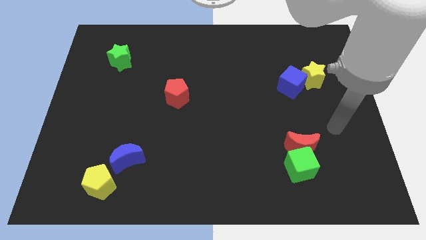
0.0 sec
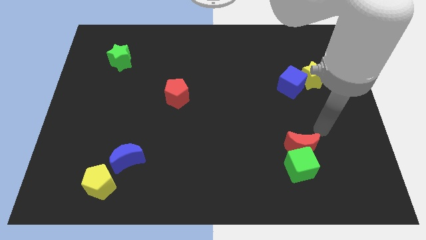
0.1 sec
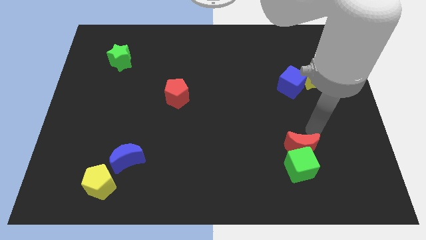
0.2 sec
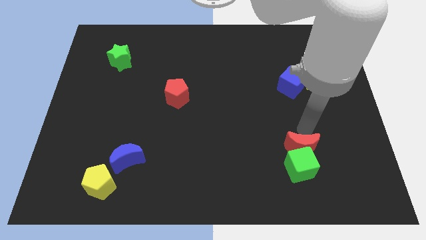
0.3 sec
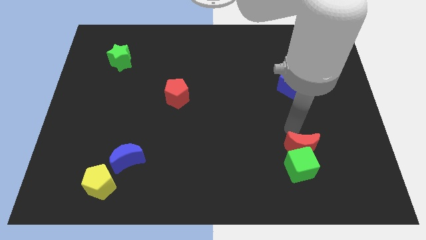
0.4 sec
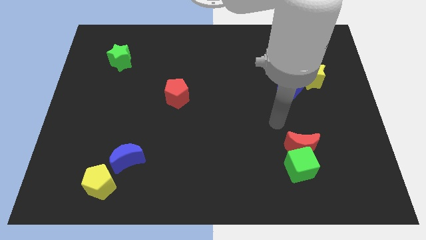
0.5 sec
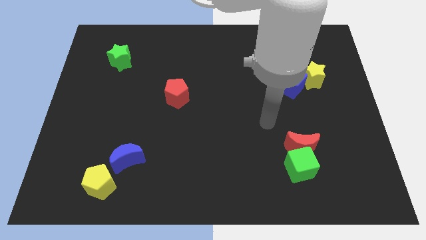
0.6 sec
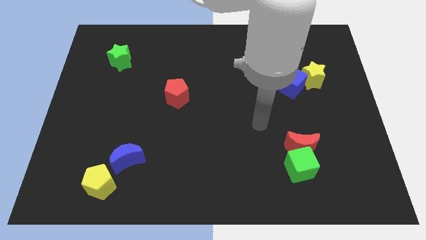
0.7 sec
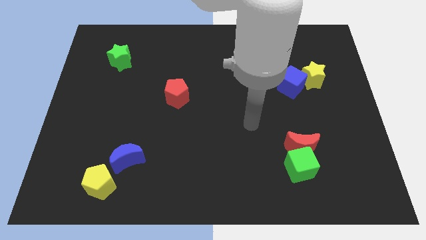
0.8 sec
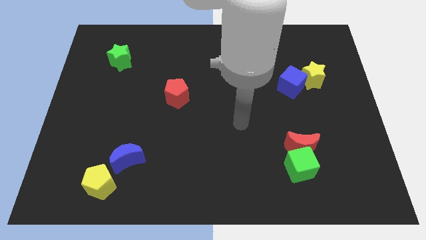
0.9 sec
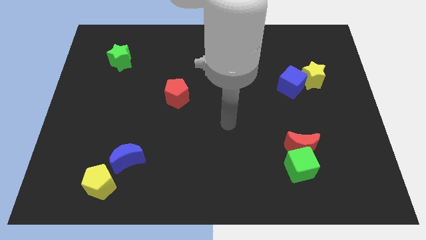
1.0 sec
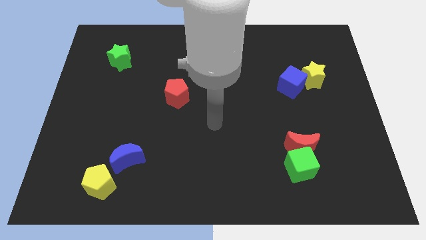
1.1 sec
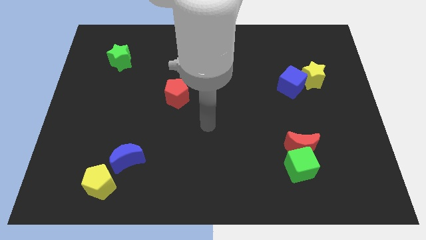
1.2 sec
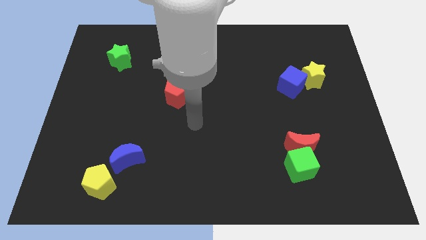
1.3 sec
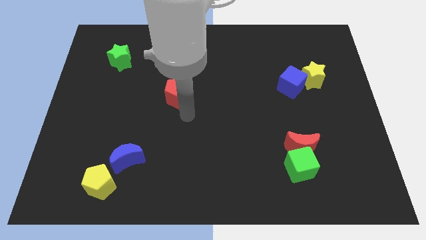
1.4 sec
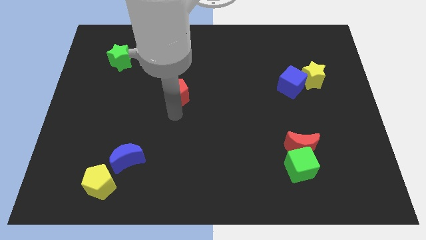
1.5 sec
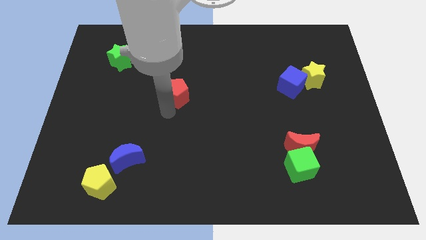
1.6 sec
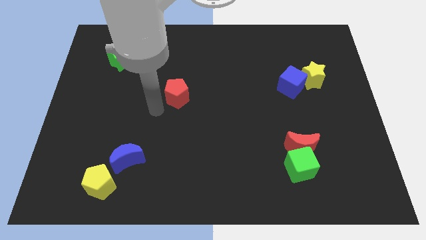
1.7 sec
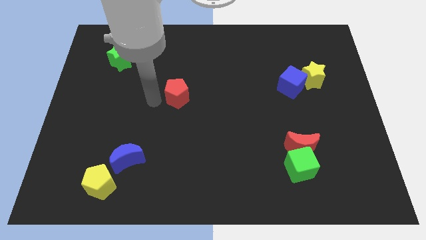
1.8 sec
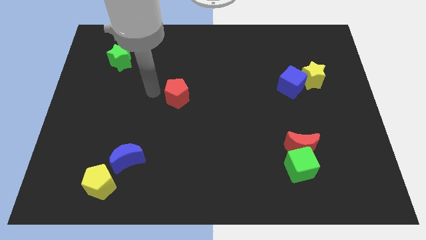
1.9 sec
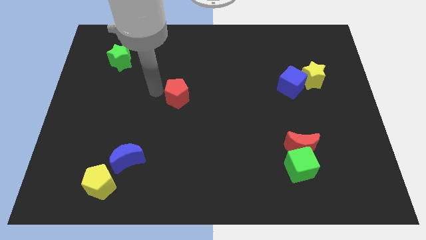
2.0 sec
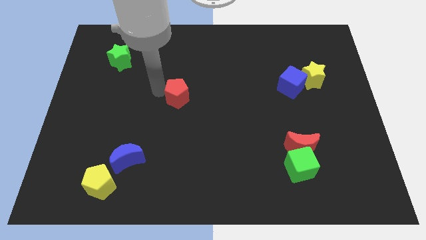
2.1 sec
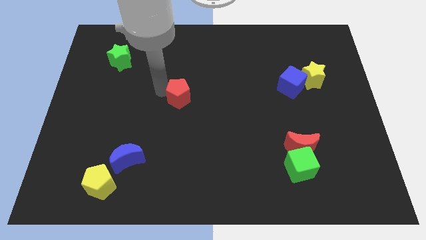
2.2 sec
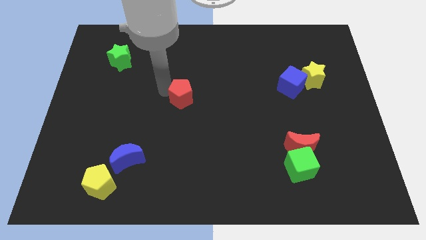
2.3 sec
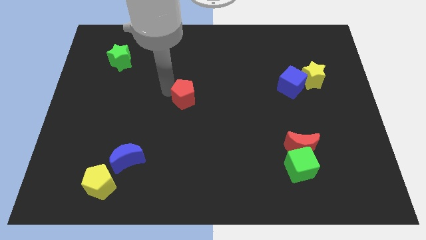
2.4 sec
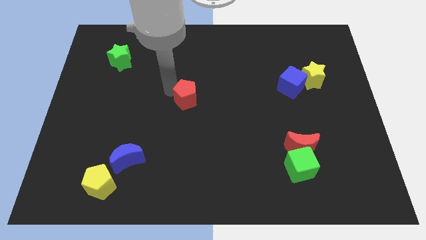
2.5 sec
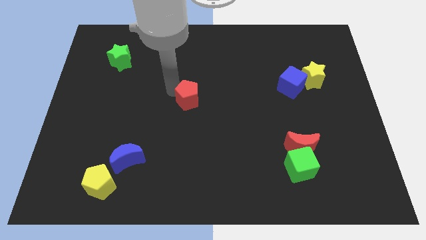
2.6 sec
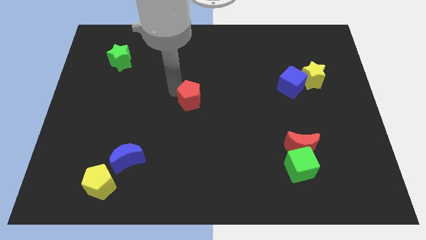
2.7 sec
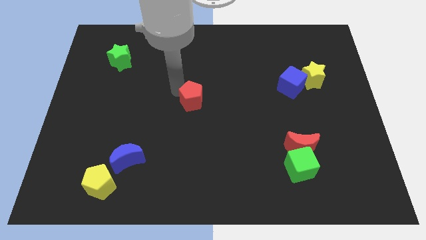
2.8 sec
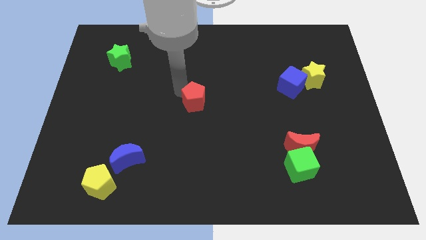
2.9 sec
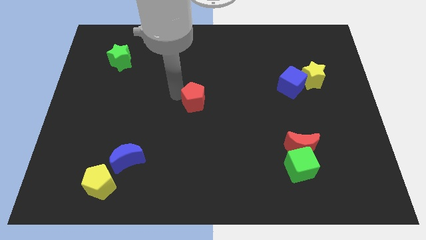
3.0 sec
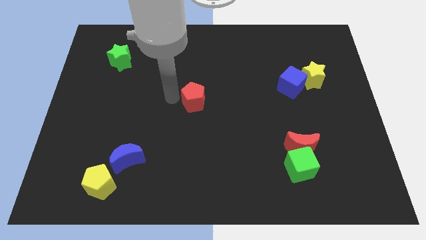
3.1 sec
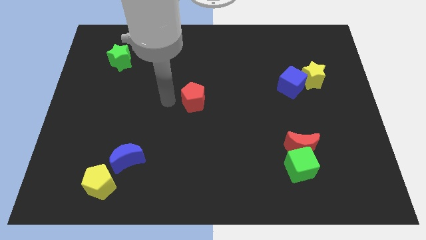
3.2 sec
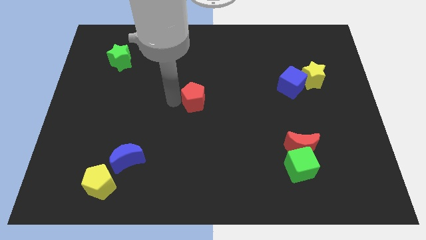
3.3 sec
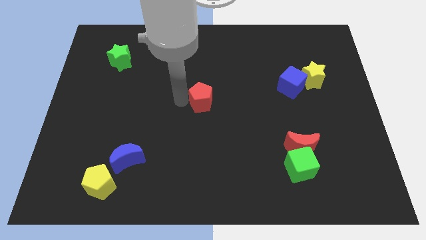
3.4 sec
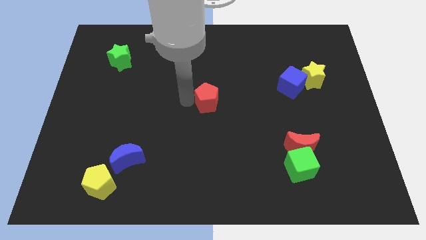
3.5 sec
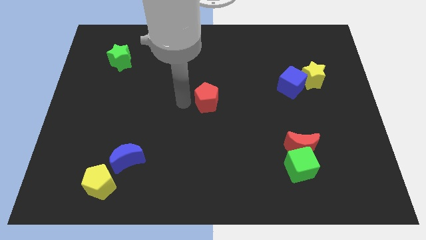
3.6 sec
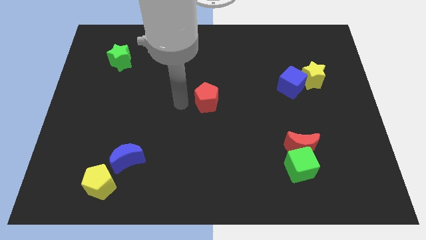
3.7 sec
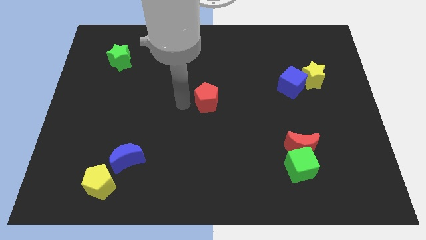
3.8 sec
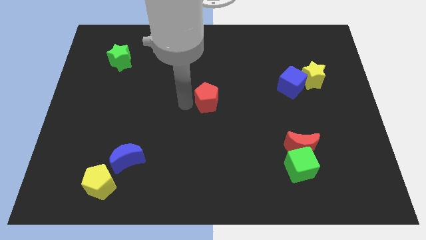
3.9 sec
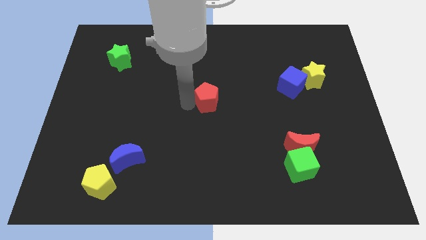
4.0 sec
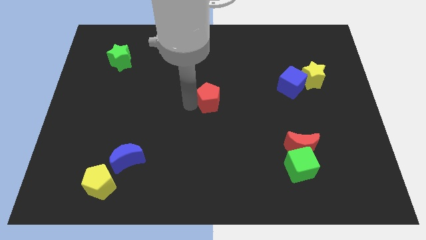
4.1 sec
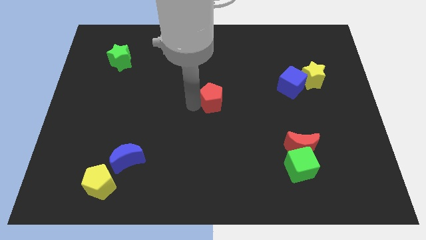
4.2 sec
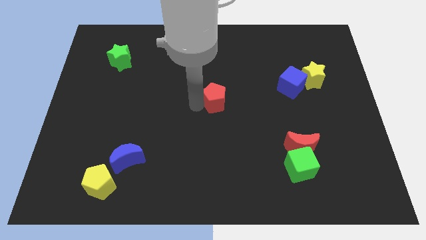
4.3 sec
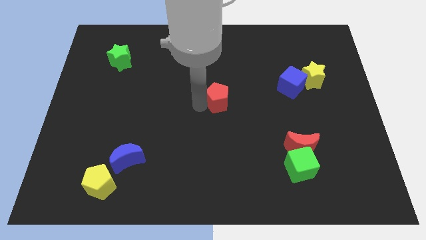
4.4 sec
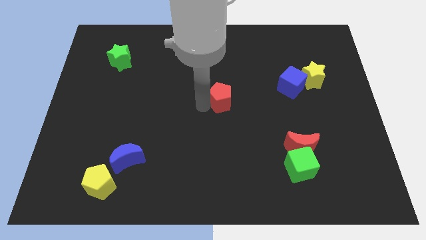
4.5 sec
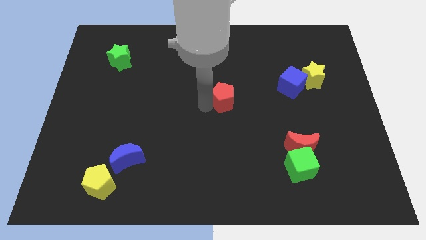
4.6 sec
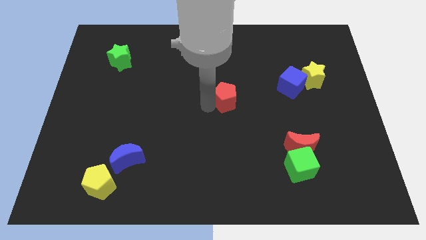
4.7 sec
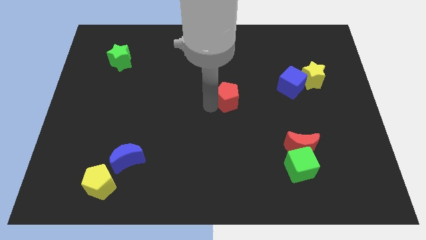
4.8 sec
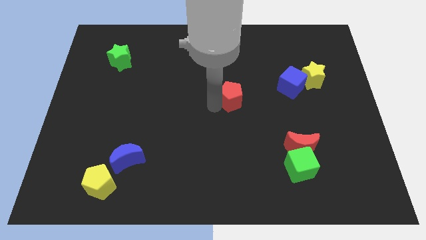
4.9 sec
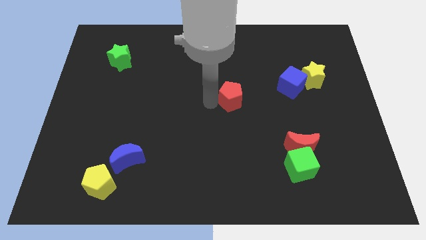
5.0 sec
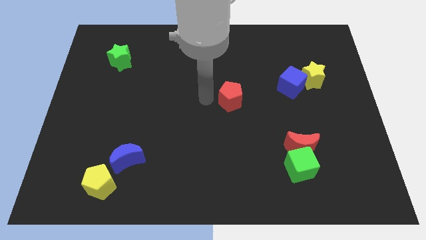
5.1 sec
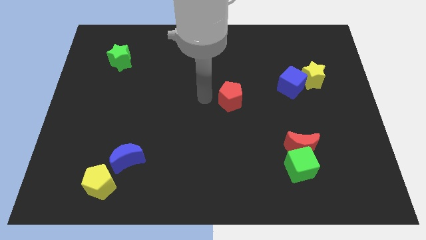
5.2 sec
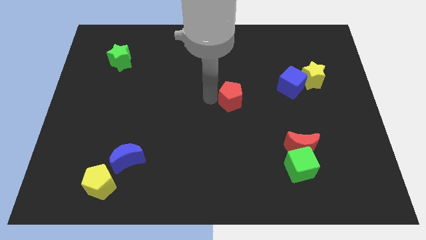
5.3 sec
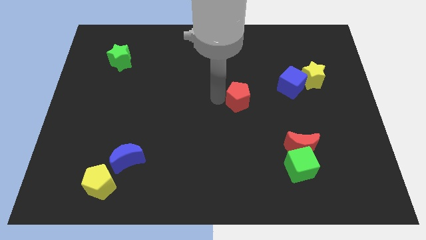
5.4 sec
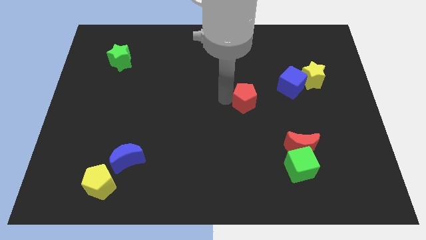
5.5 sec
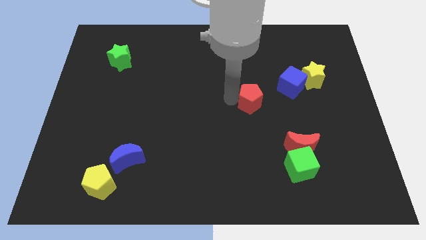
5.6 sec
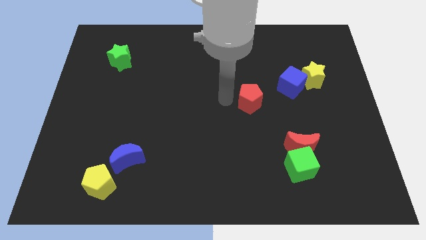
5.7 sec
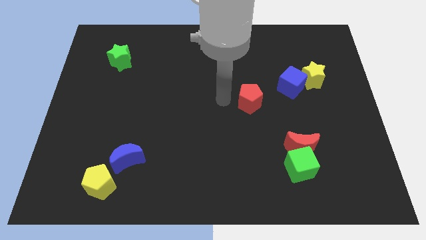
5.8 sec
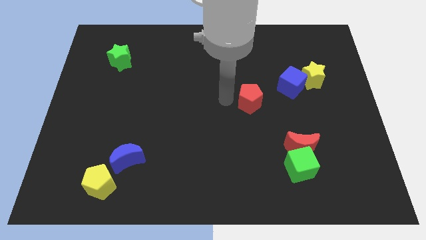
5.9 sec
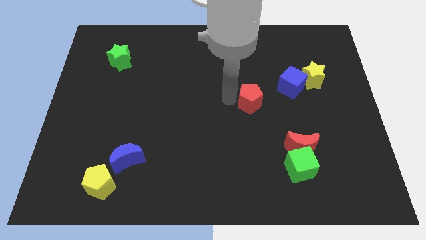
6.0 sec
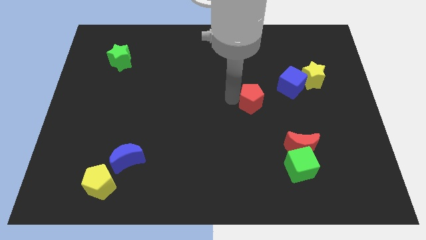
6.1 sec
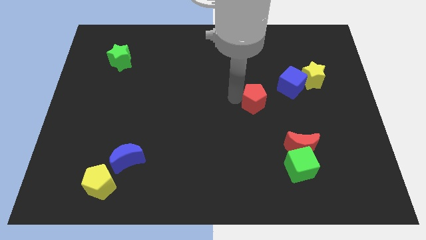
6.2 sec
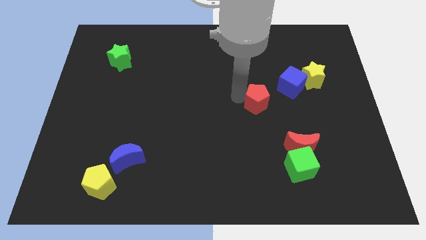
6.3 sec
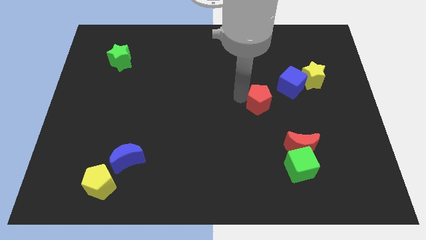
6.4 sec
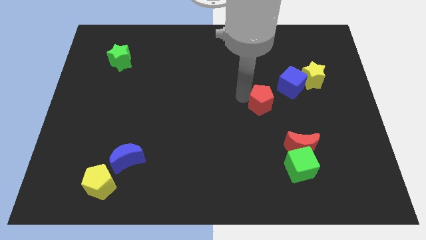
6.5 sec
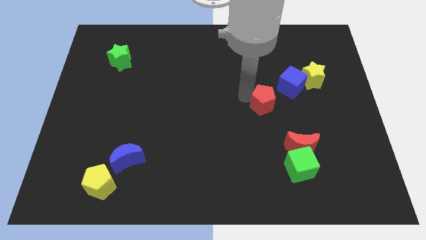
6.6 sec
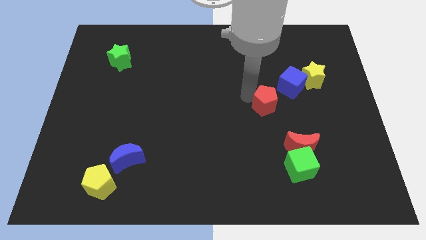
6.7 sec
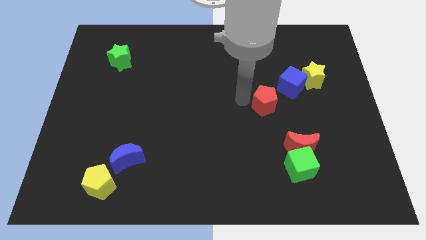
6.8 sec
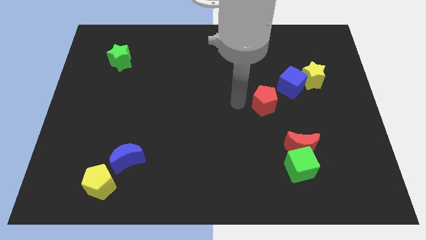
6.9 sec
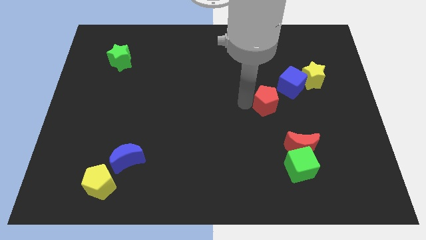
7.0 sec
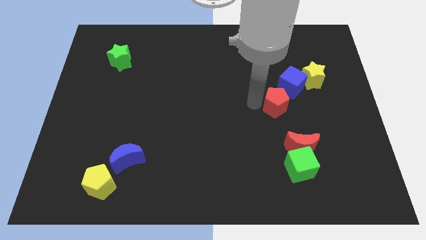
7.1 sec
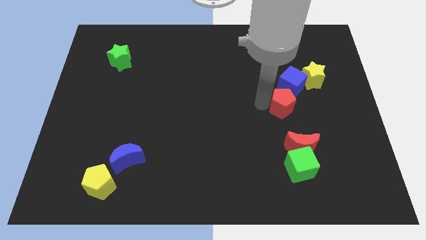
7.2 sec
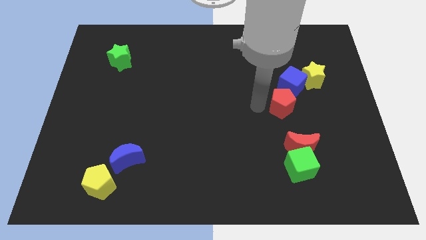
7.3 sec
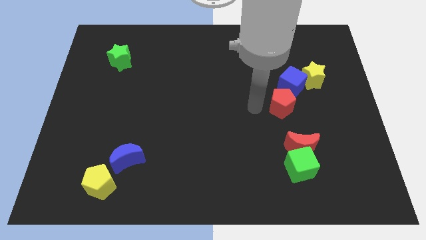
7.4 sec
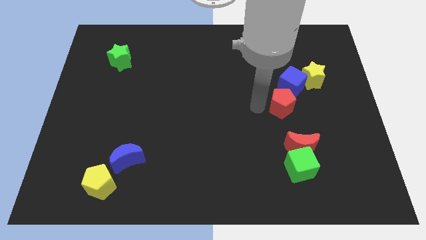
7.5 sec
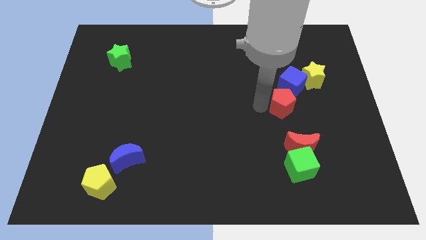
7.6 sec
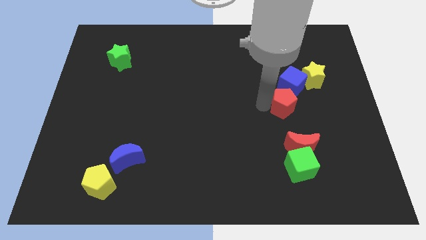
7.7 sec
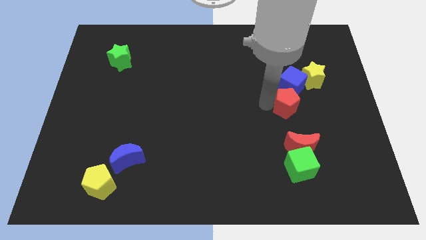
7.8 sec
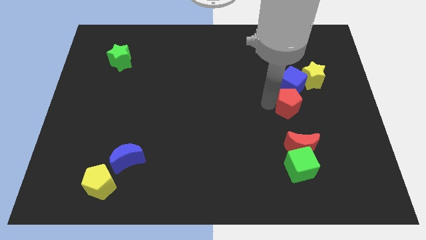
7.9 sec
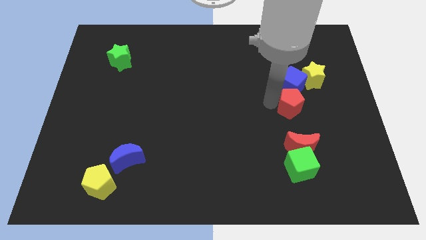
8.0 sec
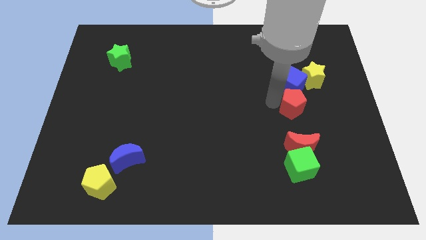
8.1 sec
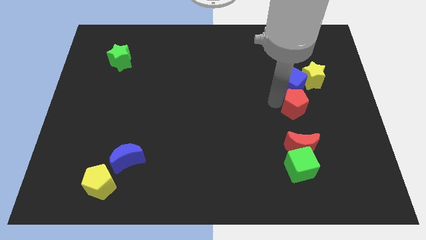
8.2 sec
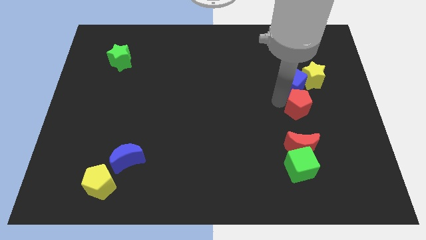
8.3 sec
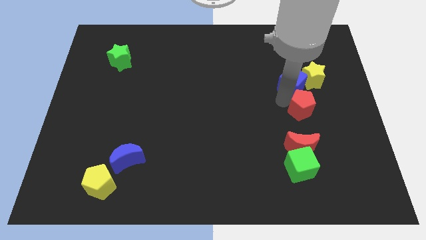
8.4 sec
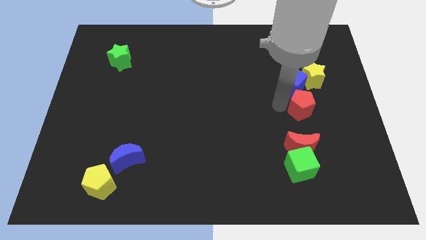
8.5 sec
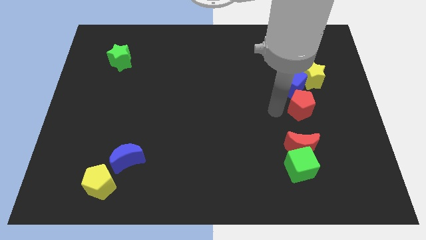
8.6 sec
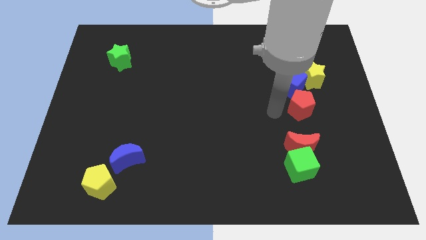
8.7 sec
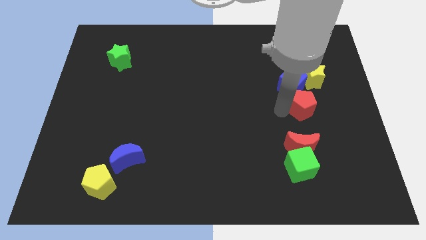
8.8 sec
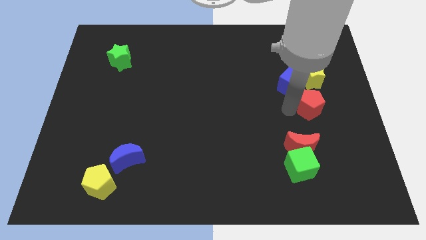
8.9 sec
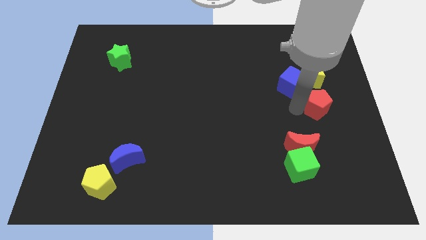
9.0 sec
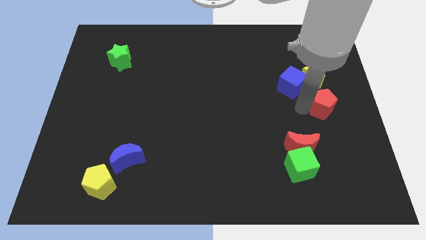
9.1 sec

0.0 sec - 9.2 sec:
slide the red pentagon to the right side
